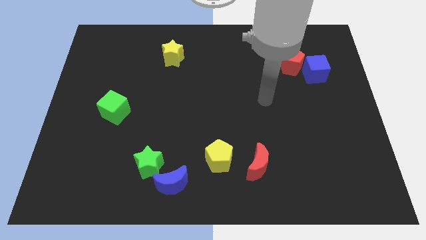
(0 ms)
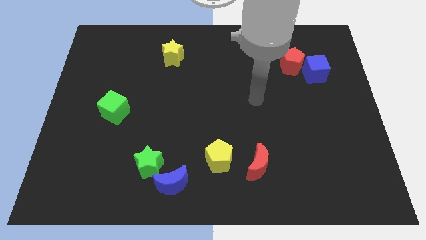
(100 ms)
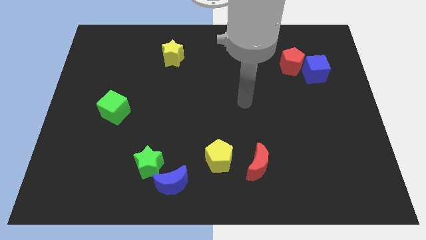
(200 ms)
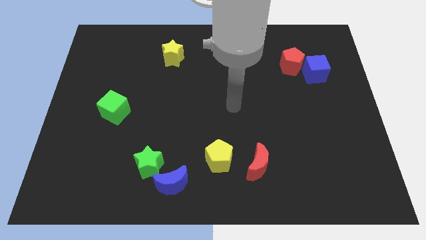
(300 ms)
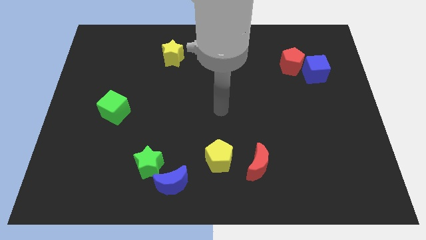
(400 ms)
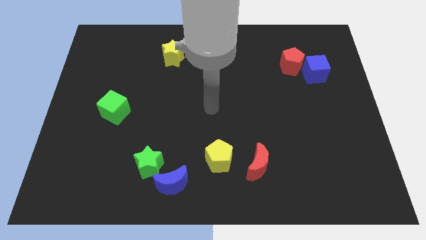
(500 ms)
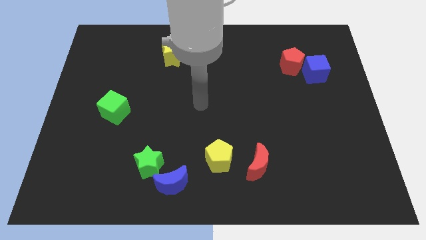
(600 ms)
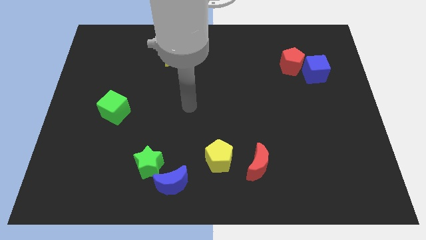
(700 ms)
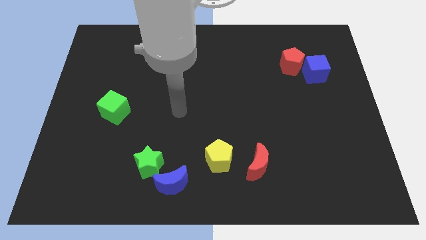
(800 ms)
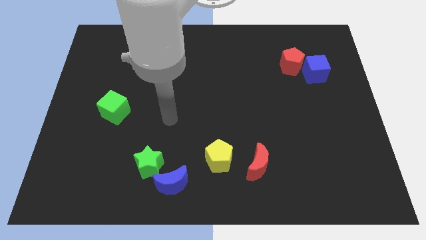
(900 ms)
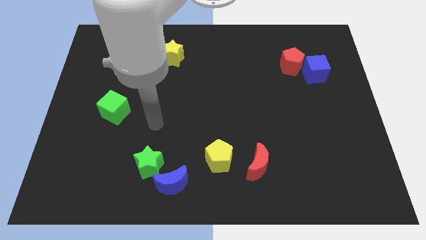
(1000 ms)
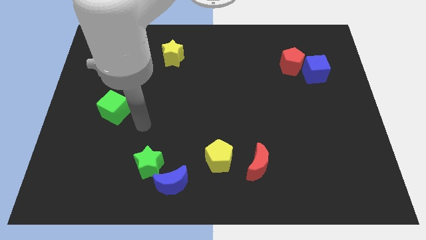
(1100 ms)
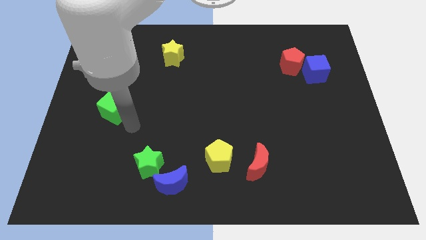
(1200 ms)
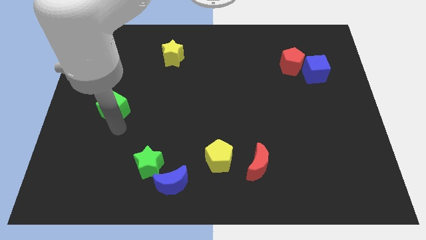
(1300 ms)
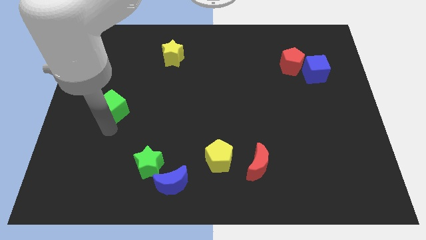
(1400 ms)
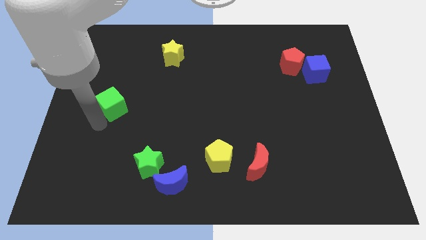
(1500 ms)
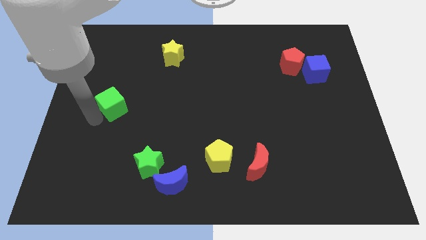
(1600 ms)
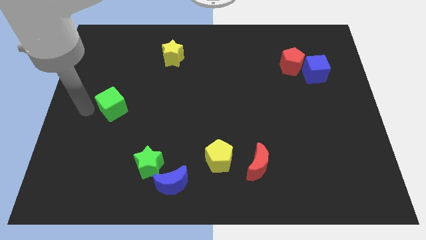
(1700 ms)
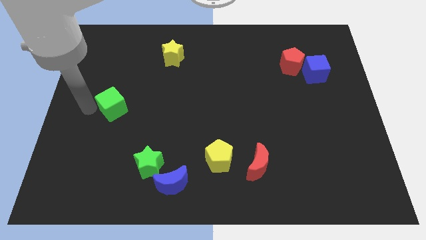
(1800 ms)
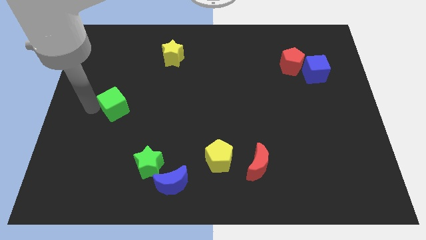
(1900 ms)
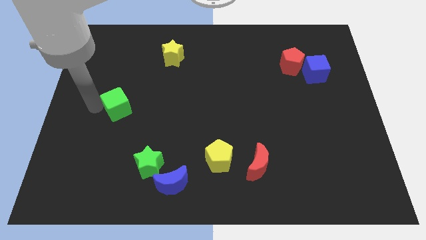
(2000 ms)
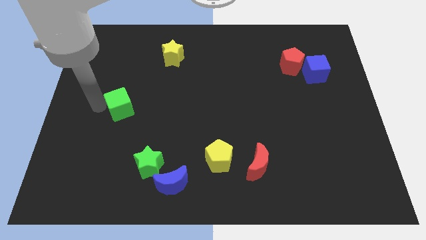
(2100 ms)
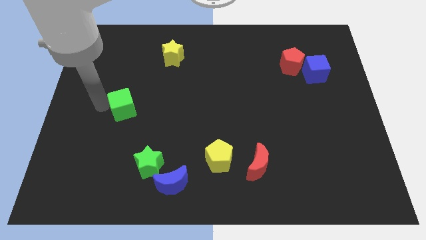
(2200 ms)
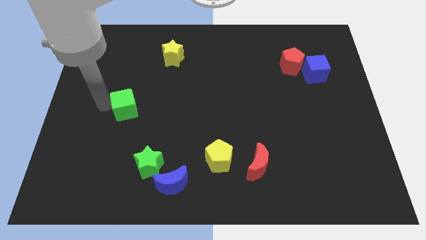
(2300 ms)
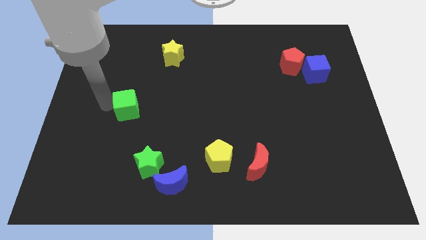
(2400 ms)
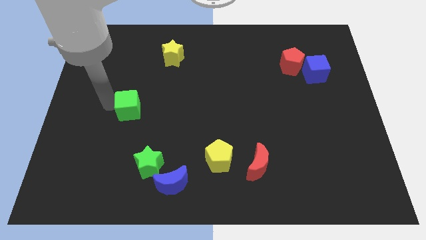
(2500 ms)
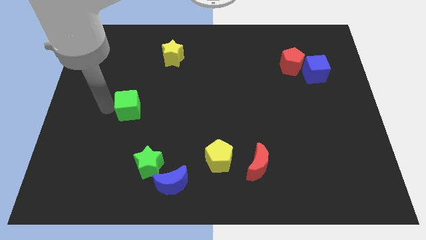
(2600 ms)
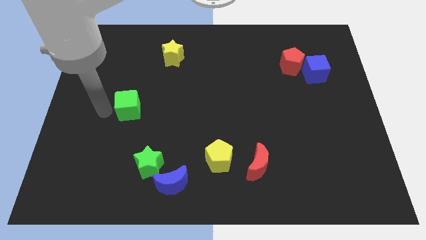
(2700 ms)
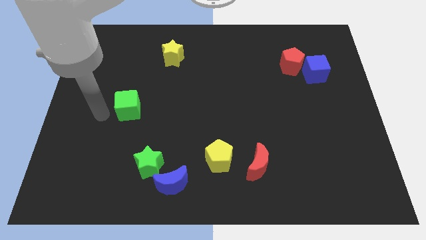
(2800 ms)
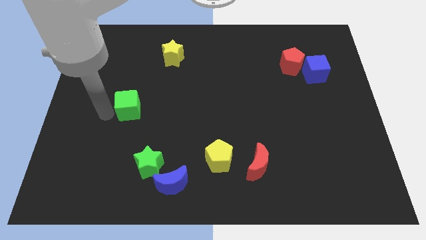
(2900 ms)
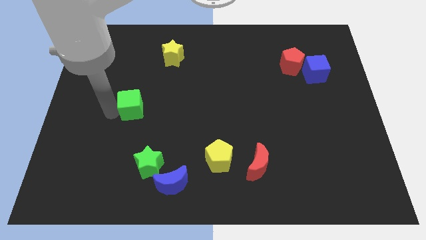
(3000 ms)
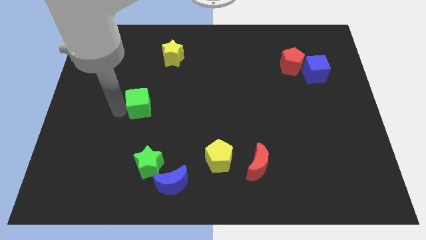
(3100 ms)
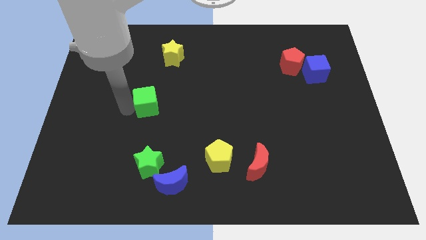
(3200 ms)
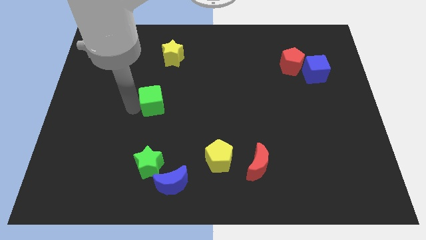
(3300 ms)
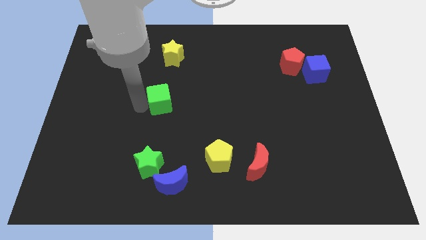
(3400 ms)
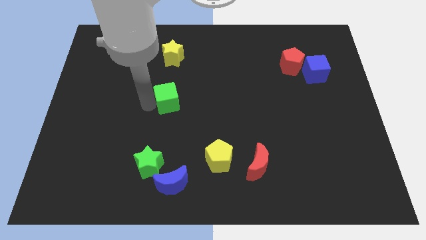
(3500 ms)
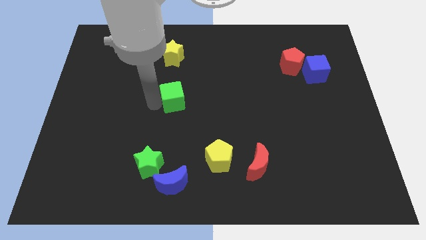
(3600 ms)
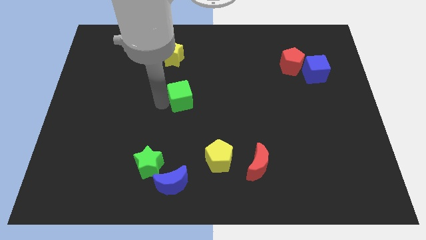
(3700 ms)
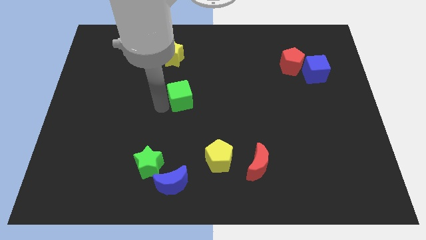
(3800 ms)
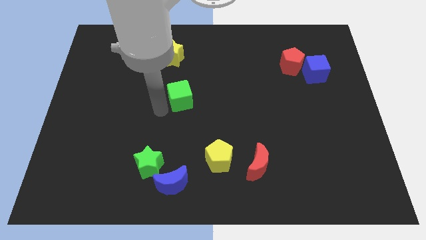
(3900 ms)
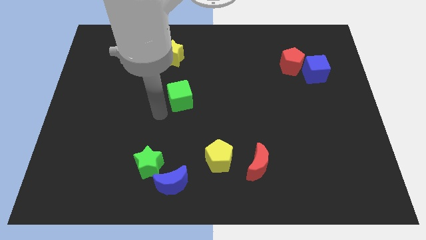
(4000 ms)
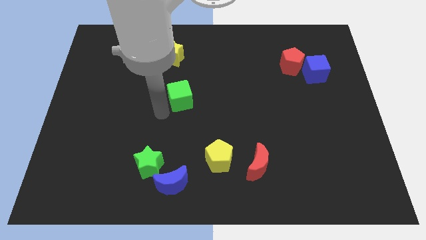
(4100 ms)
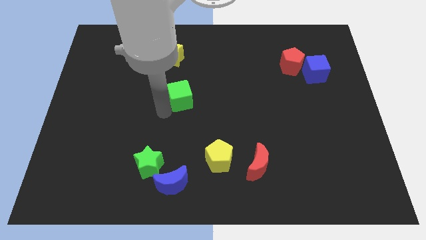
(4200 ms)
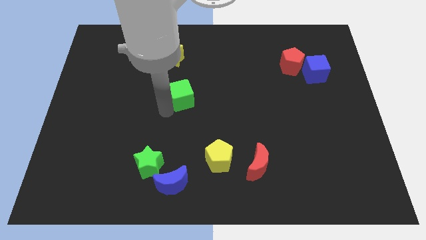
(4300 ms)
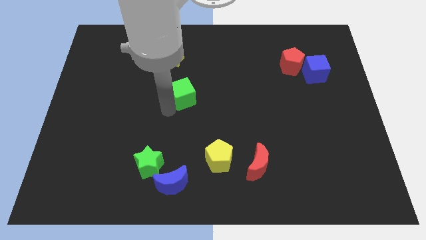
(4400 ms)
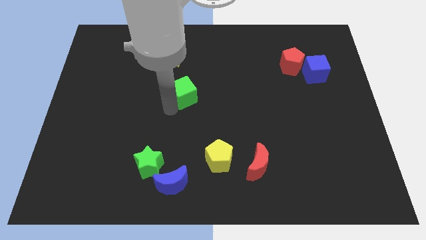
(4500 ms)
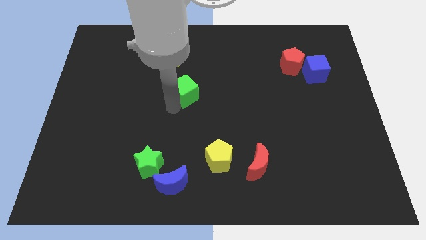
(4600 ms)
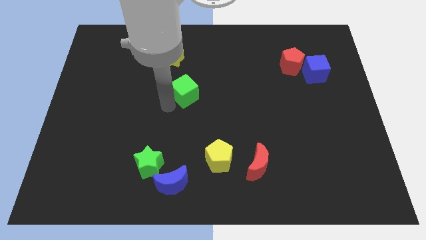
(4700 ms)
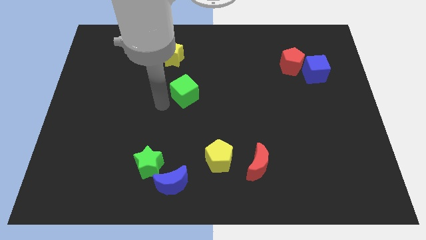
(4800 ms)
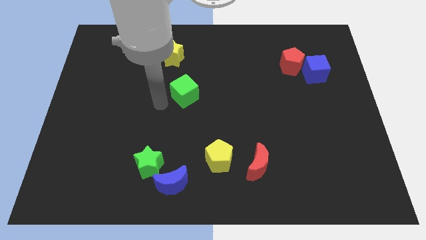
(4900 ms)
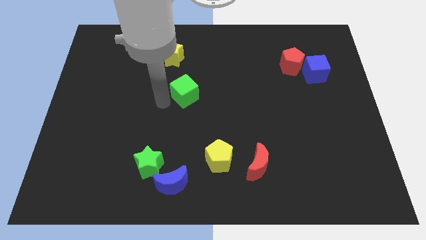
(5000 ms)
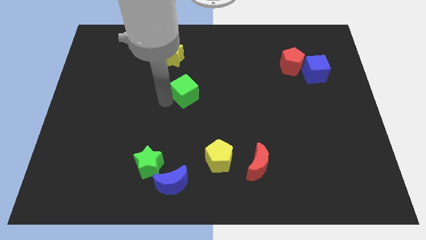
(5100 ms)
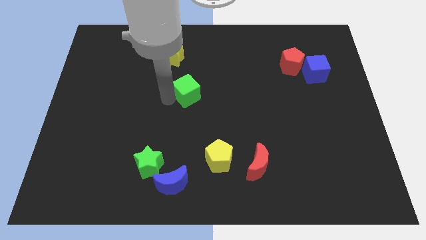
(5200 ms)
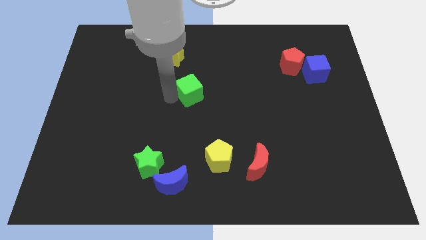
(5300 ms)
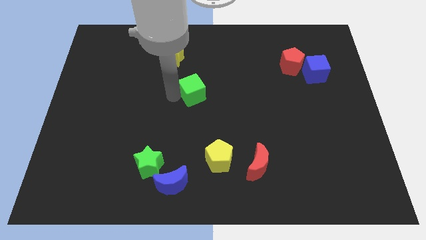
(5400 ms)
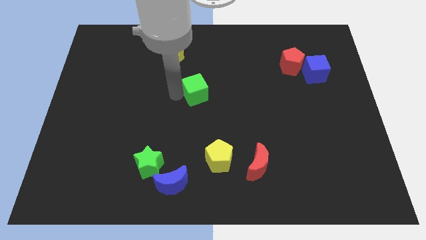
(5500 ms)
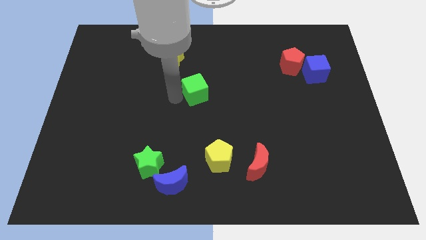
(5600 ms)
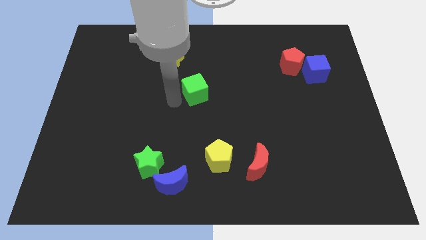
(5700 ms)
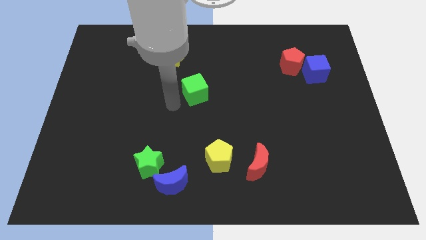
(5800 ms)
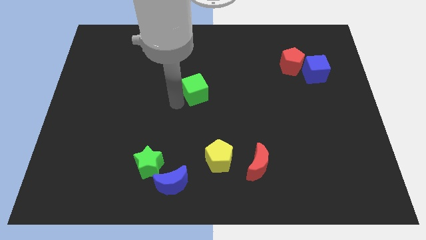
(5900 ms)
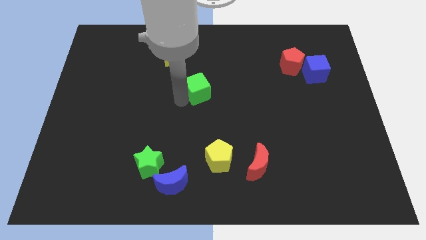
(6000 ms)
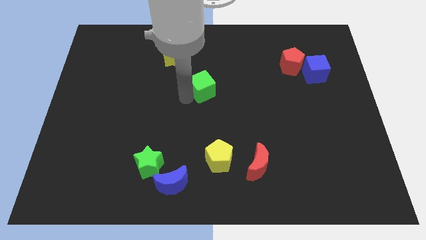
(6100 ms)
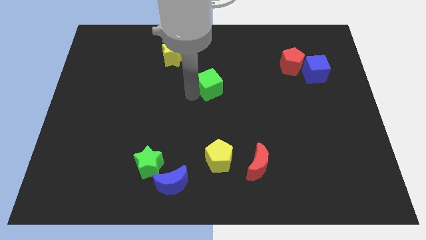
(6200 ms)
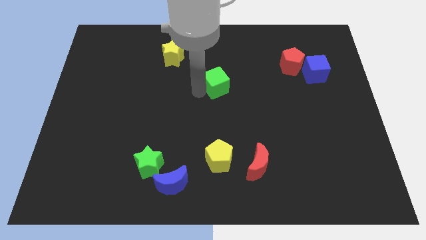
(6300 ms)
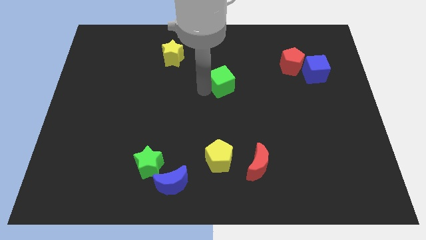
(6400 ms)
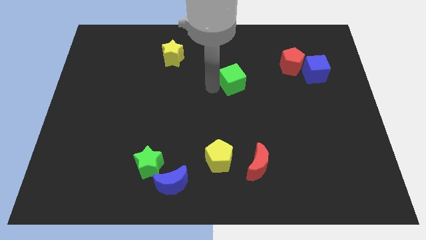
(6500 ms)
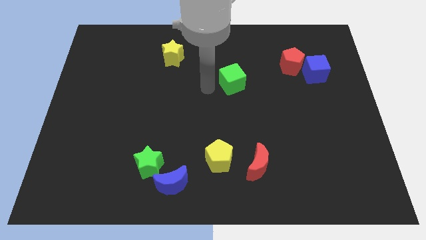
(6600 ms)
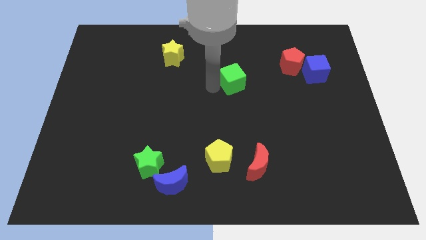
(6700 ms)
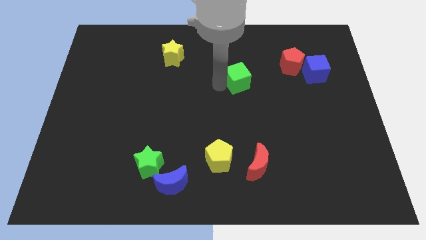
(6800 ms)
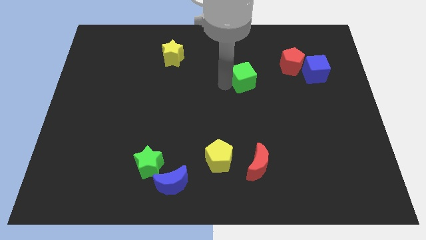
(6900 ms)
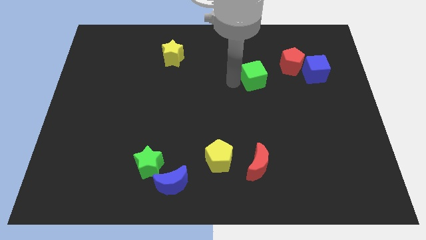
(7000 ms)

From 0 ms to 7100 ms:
push the green cube to the bottom left of the red pentagon
